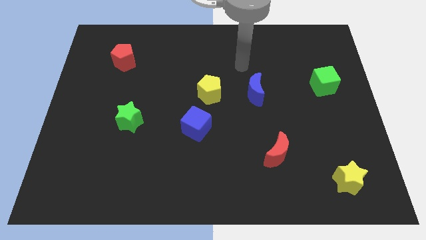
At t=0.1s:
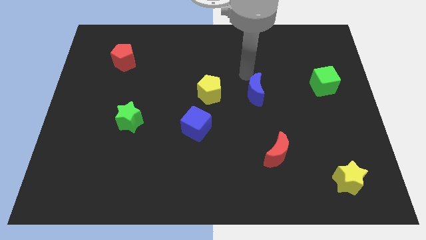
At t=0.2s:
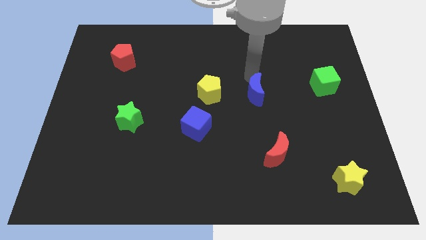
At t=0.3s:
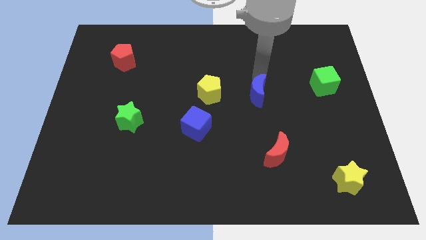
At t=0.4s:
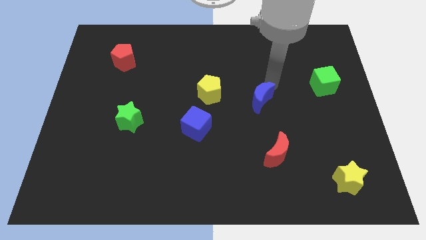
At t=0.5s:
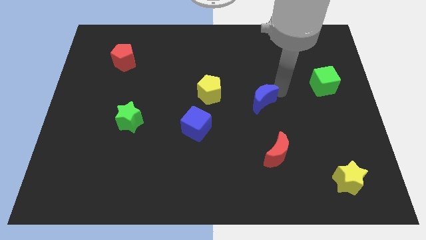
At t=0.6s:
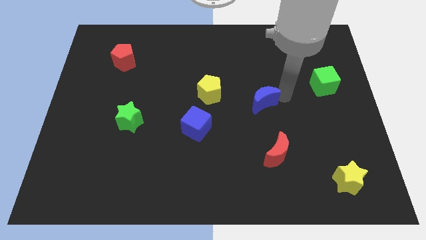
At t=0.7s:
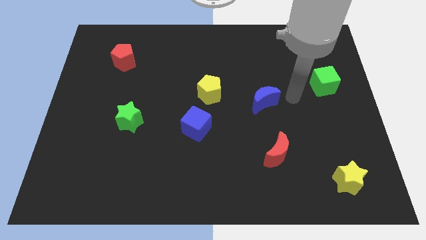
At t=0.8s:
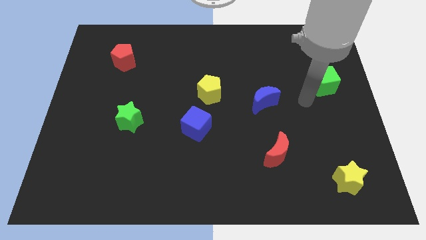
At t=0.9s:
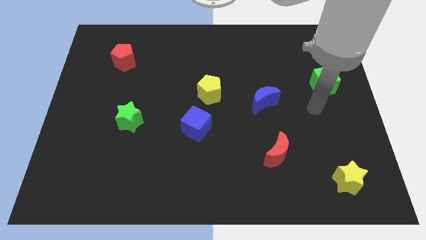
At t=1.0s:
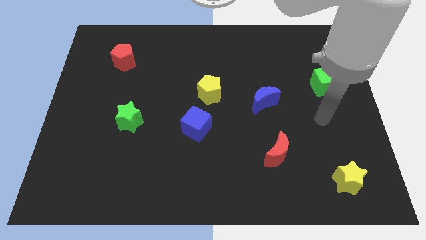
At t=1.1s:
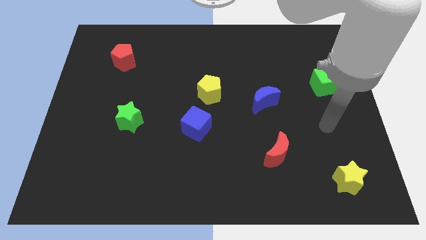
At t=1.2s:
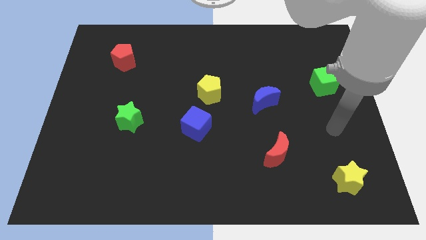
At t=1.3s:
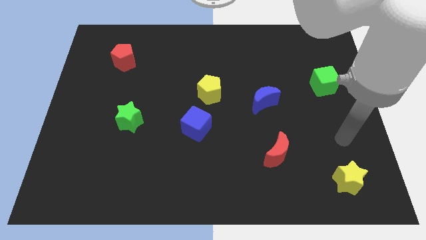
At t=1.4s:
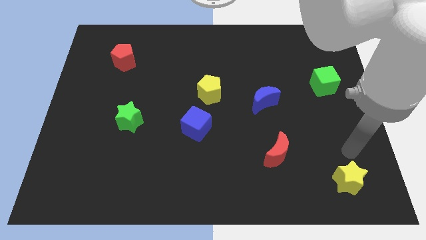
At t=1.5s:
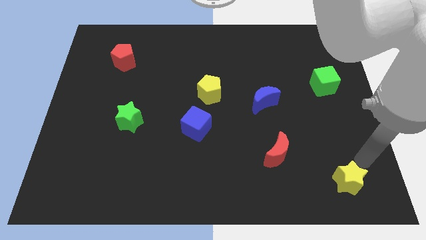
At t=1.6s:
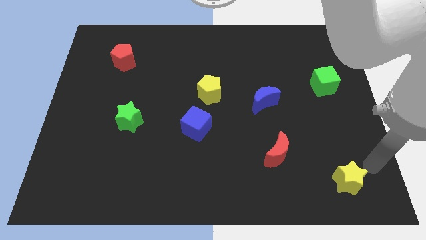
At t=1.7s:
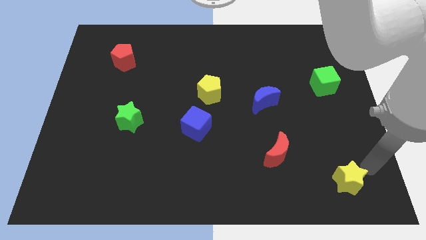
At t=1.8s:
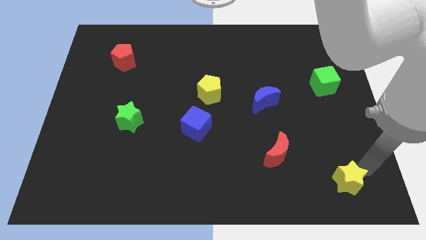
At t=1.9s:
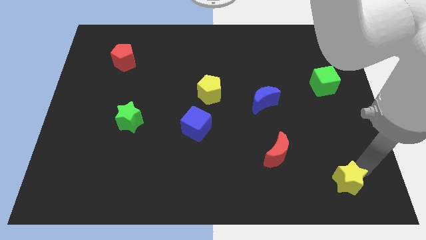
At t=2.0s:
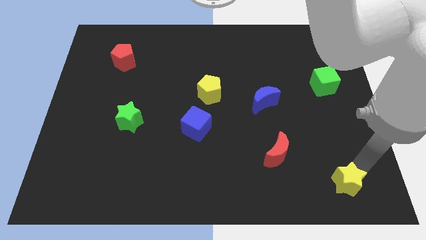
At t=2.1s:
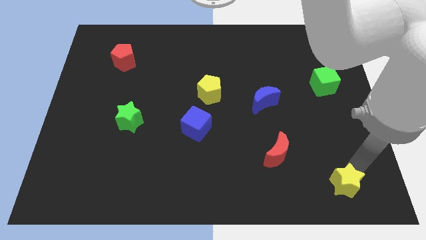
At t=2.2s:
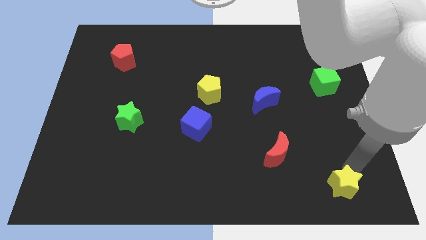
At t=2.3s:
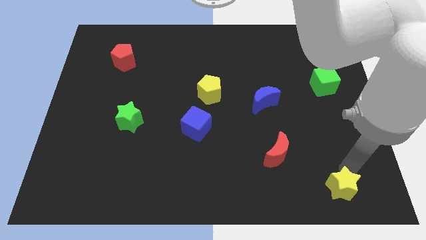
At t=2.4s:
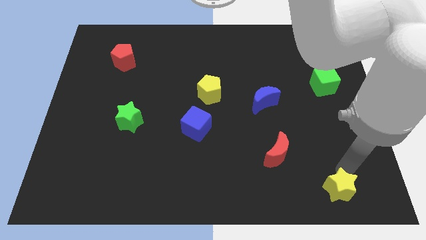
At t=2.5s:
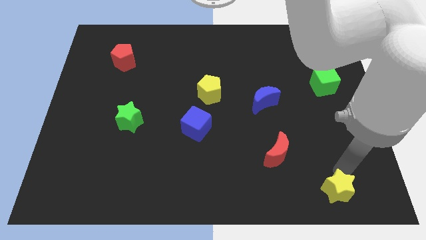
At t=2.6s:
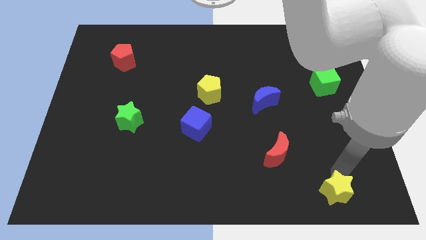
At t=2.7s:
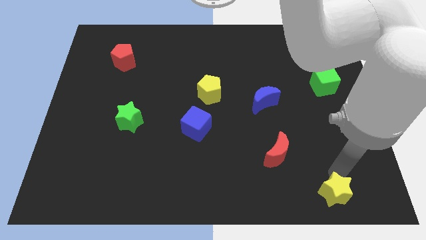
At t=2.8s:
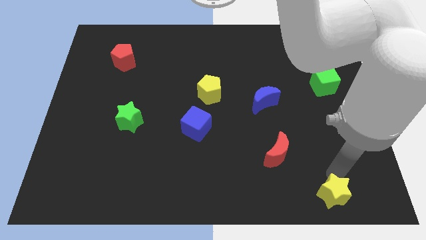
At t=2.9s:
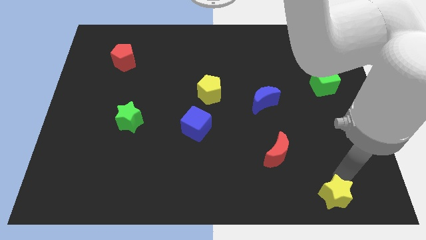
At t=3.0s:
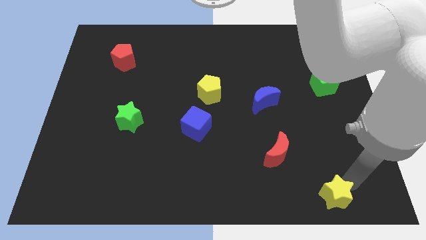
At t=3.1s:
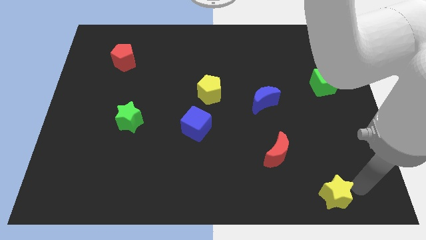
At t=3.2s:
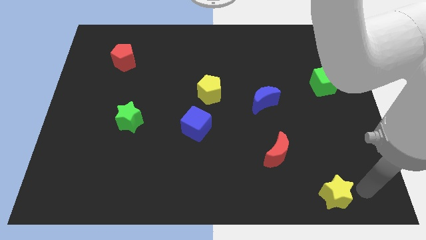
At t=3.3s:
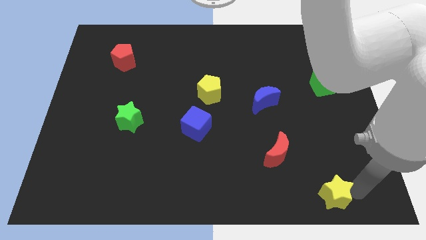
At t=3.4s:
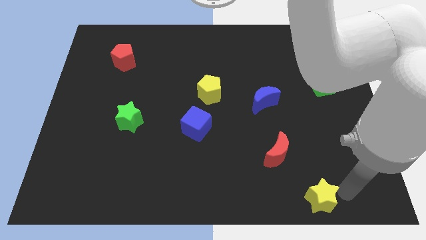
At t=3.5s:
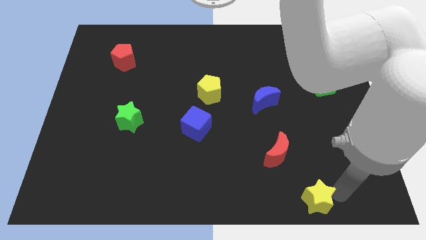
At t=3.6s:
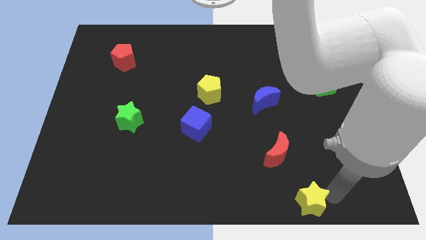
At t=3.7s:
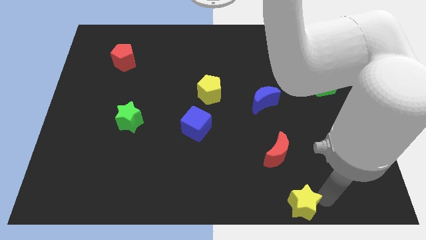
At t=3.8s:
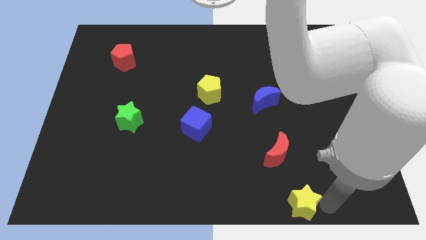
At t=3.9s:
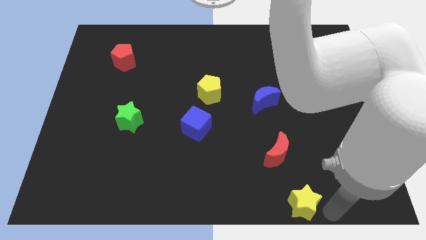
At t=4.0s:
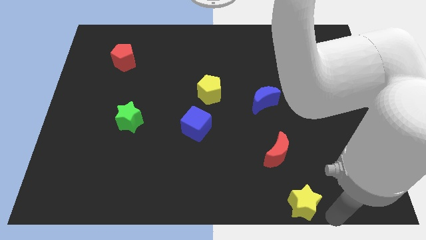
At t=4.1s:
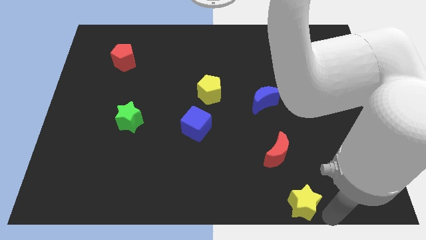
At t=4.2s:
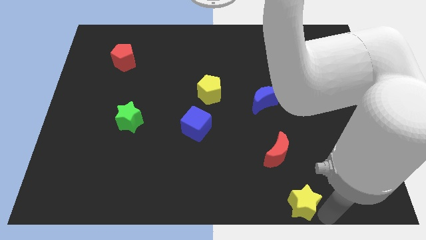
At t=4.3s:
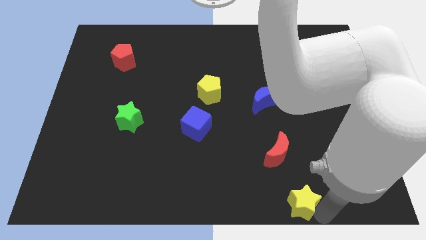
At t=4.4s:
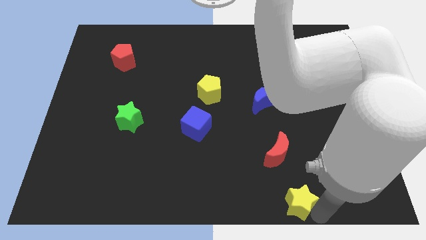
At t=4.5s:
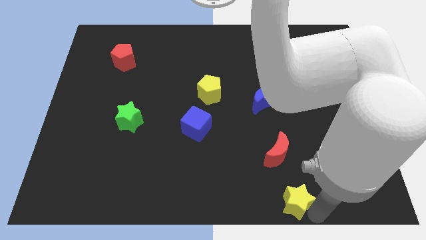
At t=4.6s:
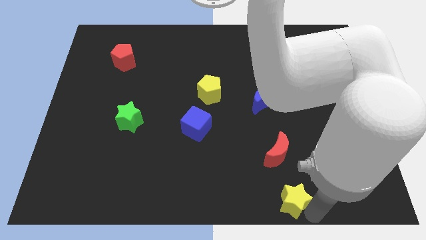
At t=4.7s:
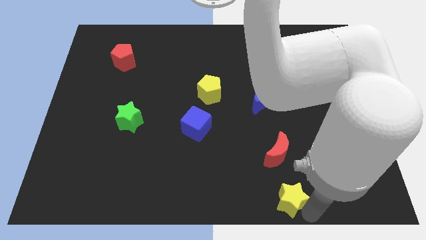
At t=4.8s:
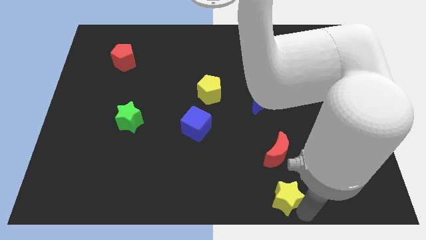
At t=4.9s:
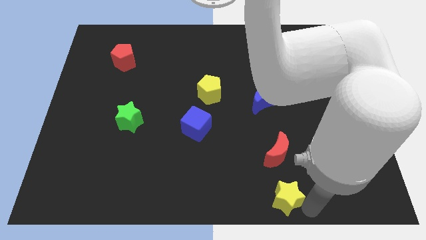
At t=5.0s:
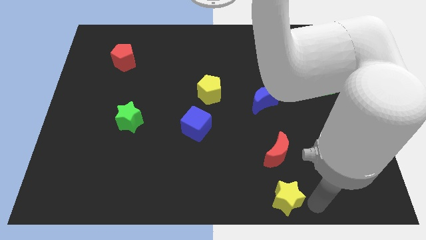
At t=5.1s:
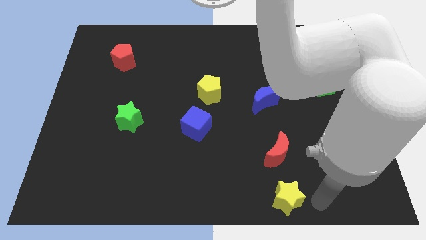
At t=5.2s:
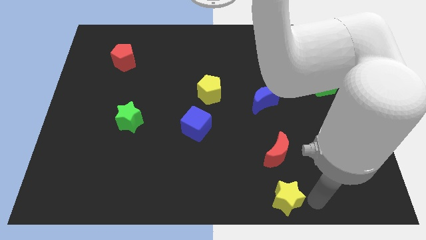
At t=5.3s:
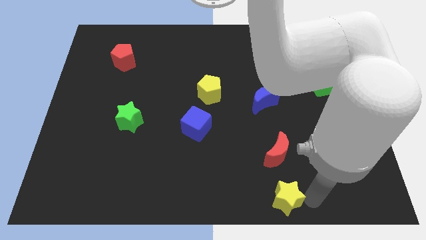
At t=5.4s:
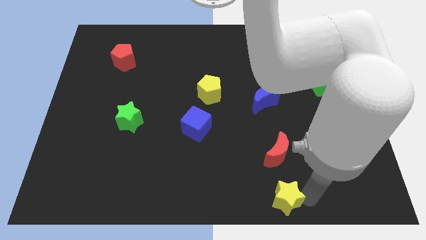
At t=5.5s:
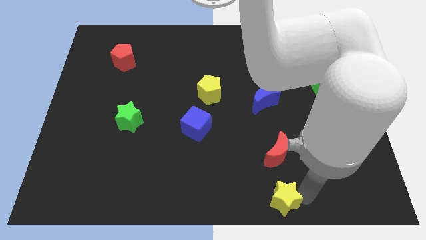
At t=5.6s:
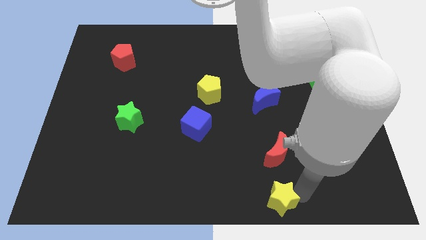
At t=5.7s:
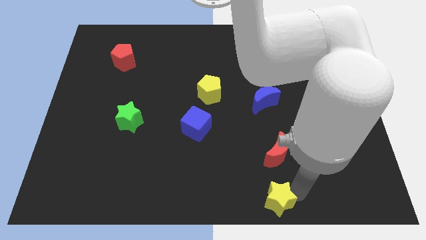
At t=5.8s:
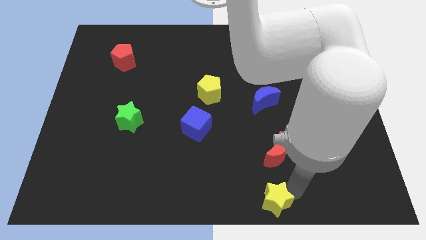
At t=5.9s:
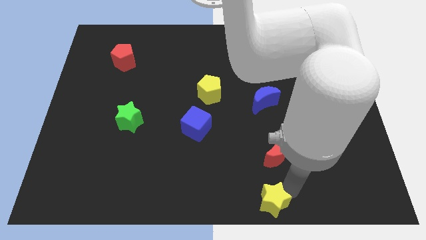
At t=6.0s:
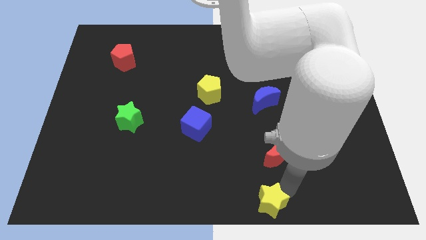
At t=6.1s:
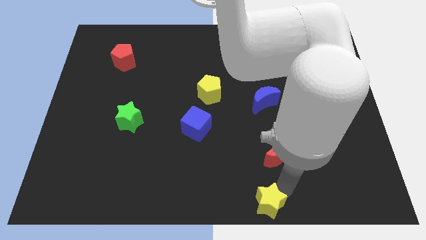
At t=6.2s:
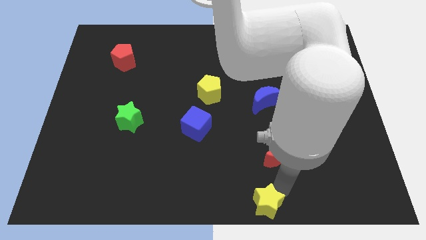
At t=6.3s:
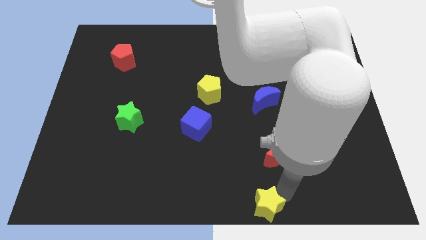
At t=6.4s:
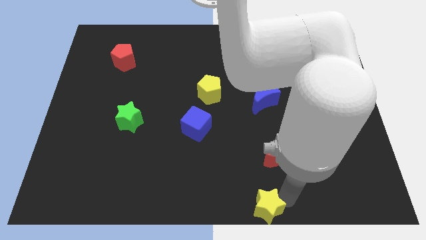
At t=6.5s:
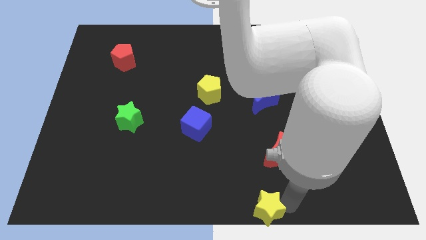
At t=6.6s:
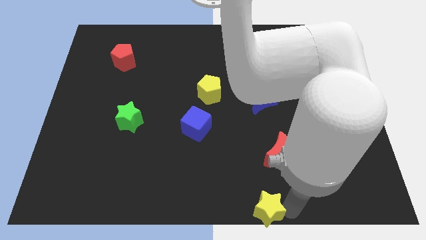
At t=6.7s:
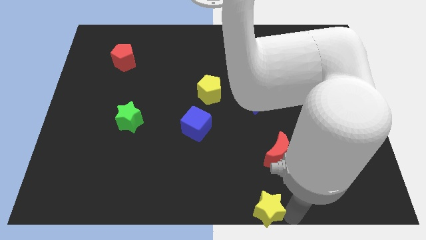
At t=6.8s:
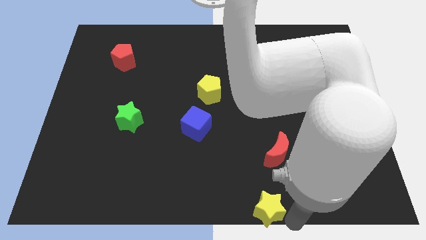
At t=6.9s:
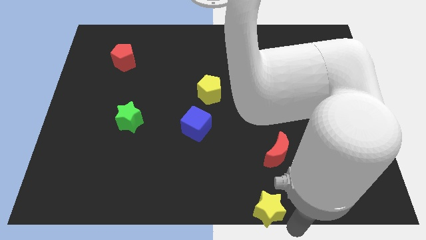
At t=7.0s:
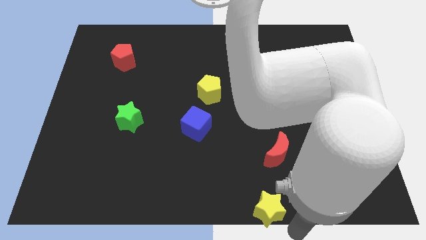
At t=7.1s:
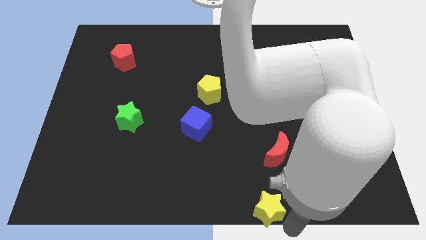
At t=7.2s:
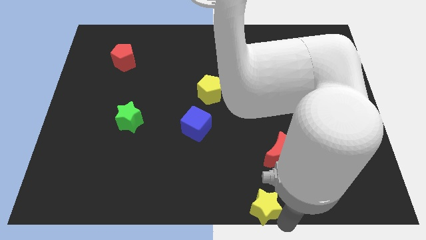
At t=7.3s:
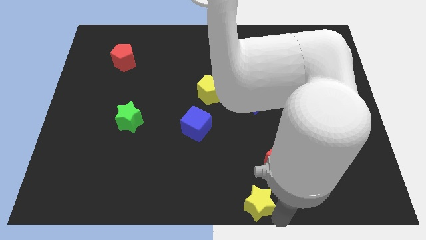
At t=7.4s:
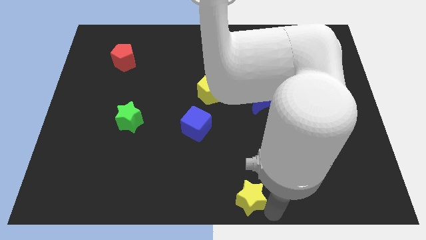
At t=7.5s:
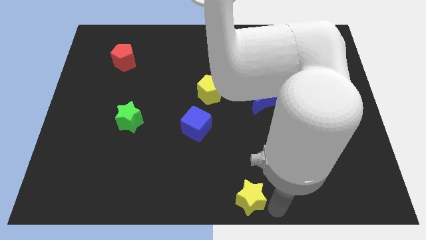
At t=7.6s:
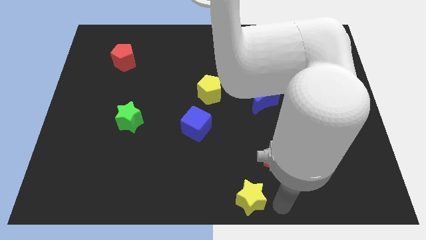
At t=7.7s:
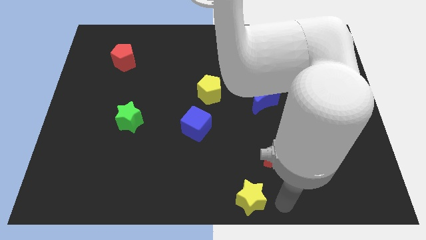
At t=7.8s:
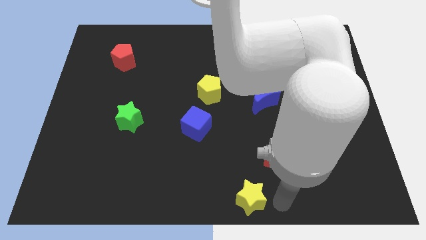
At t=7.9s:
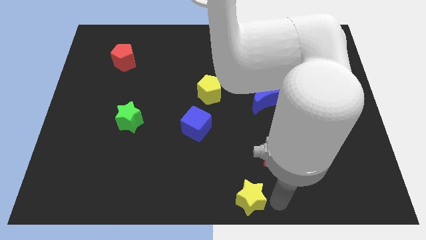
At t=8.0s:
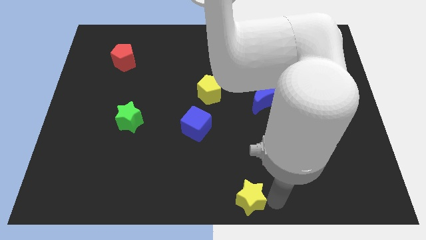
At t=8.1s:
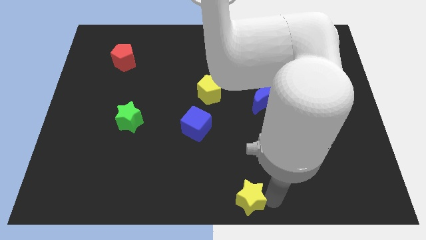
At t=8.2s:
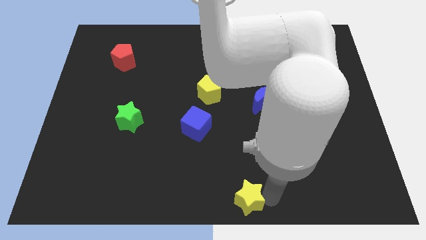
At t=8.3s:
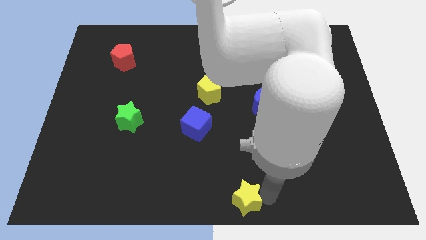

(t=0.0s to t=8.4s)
slide the yellow star to the left

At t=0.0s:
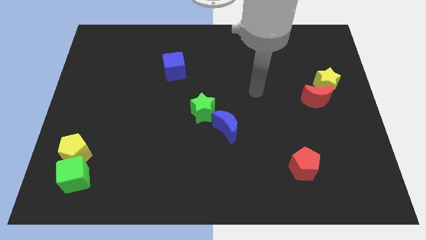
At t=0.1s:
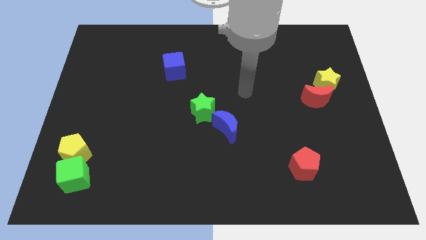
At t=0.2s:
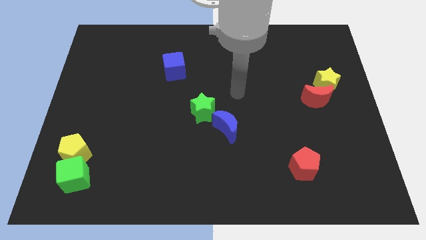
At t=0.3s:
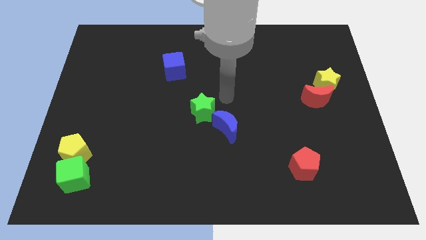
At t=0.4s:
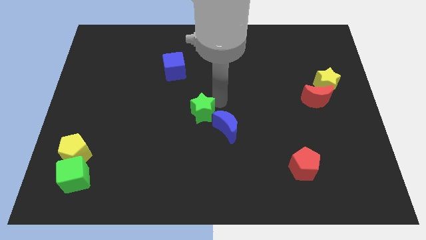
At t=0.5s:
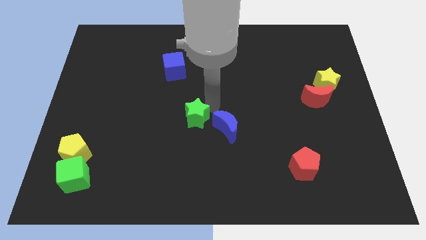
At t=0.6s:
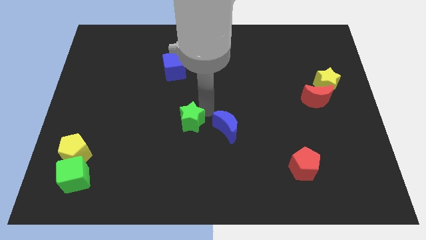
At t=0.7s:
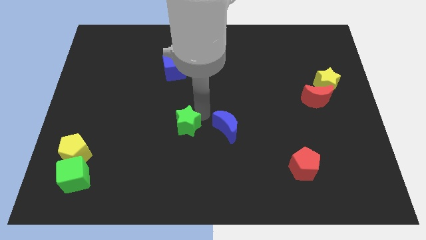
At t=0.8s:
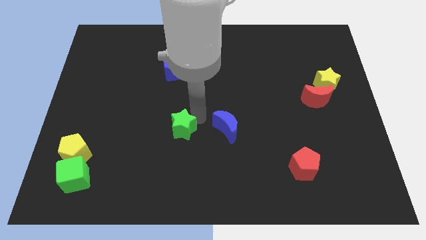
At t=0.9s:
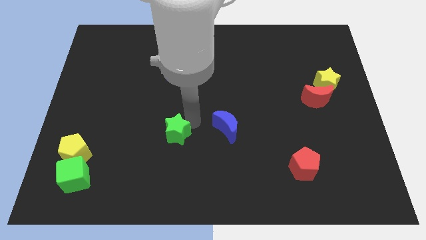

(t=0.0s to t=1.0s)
push the green star downwards and left diagonally somewhat
